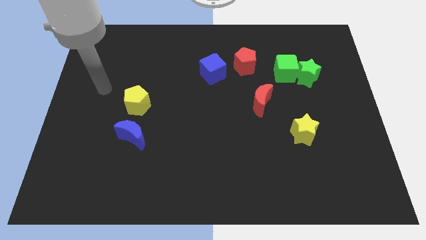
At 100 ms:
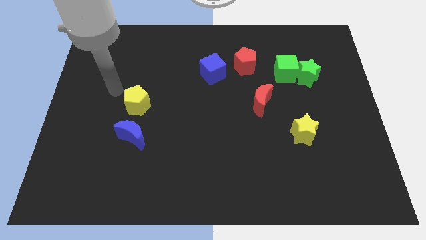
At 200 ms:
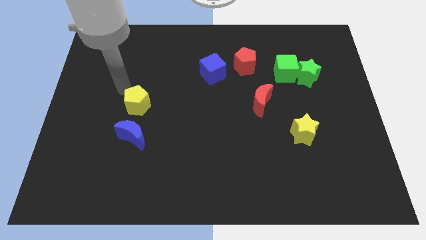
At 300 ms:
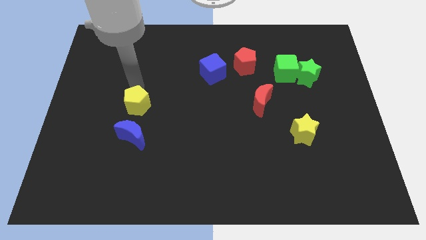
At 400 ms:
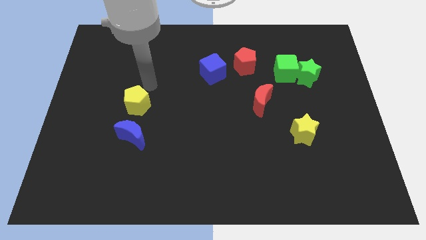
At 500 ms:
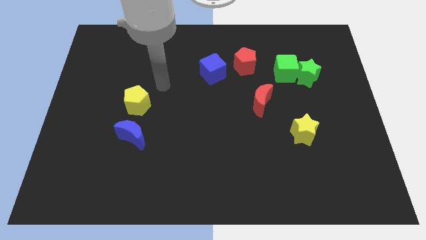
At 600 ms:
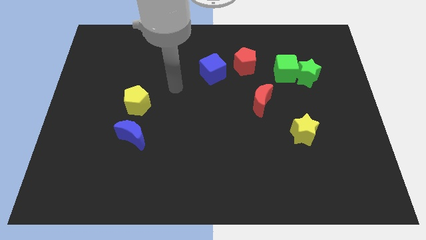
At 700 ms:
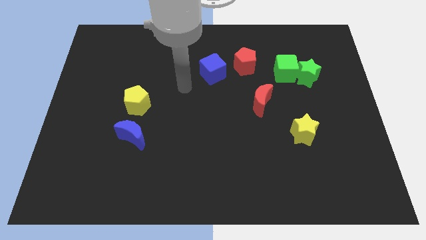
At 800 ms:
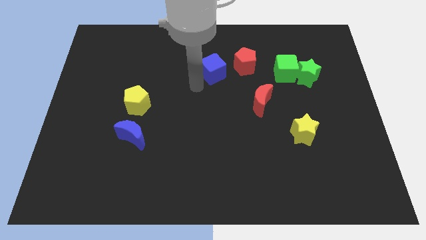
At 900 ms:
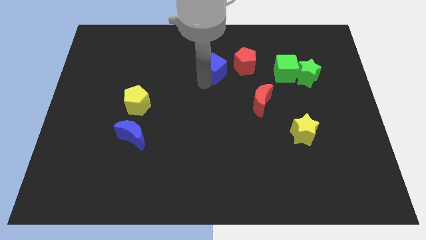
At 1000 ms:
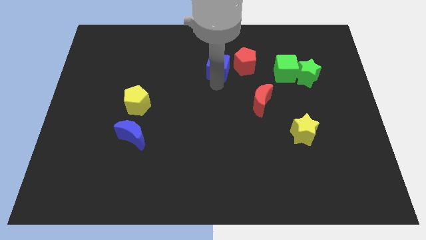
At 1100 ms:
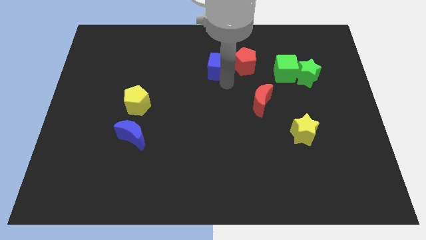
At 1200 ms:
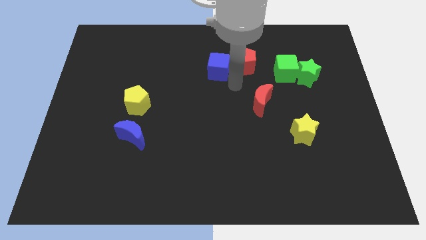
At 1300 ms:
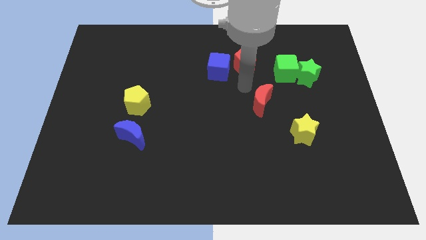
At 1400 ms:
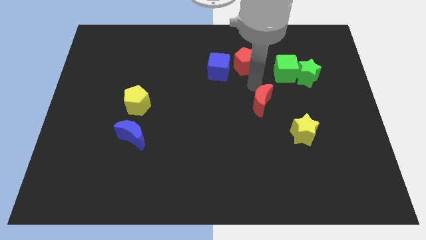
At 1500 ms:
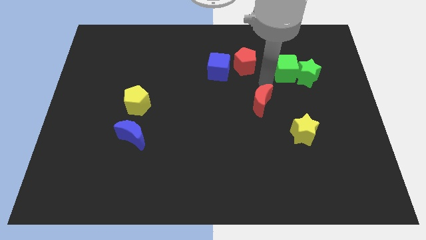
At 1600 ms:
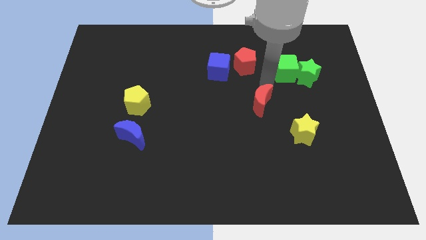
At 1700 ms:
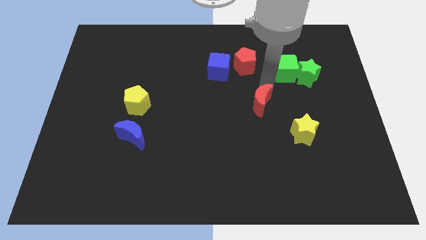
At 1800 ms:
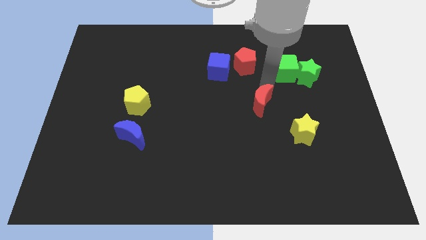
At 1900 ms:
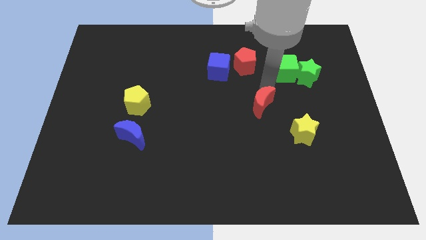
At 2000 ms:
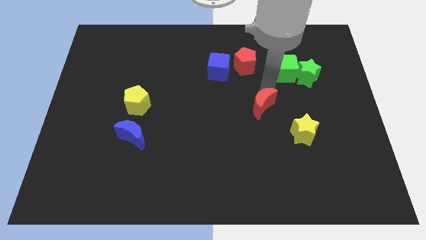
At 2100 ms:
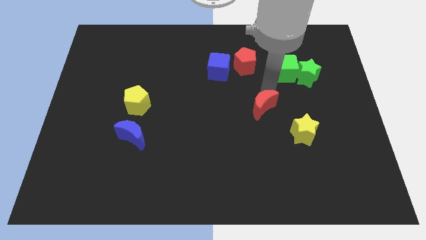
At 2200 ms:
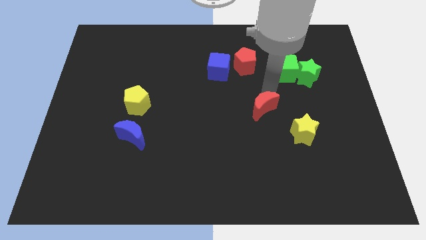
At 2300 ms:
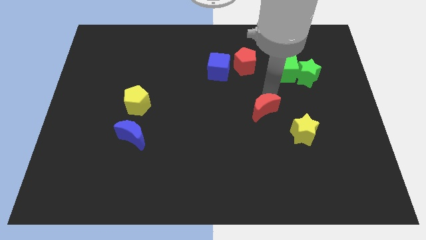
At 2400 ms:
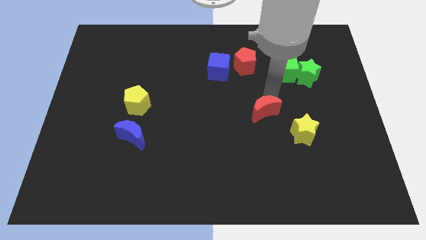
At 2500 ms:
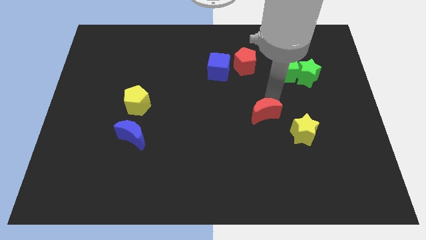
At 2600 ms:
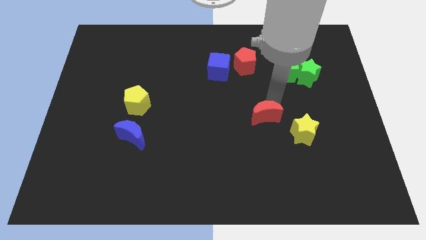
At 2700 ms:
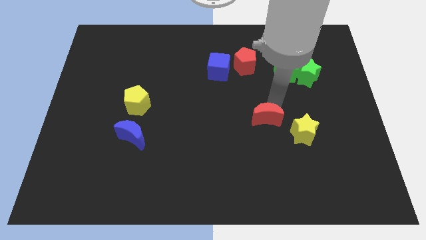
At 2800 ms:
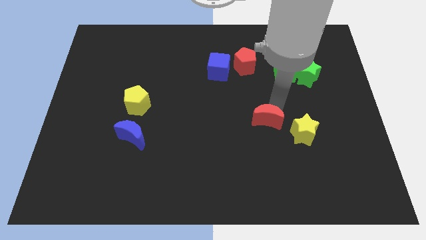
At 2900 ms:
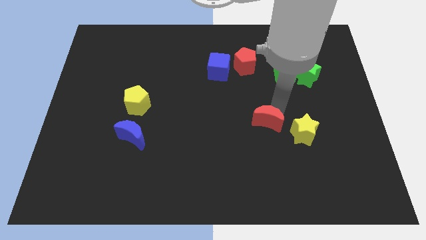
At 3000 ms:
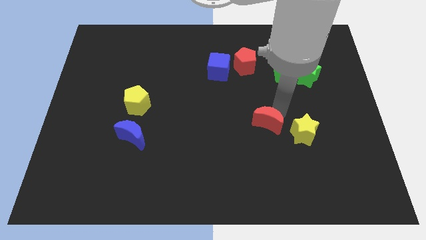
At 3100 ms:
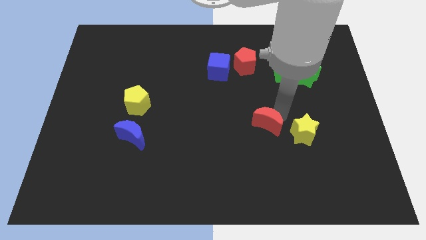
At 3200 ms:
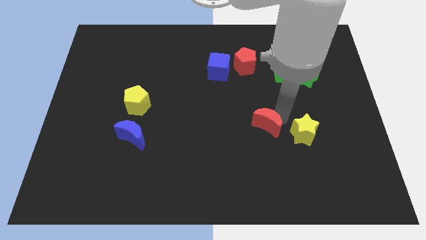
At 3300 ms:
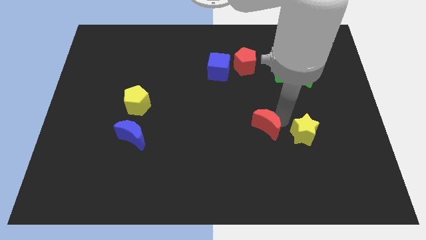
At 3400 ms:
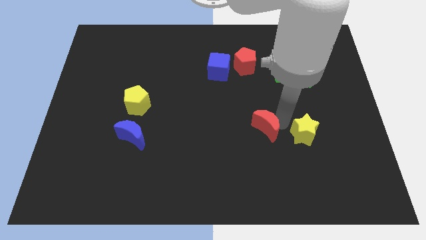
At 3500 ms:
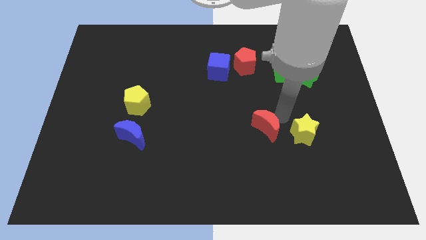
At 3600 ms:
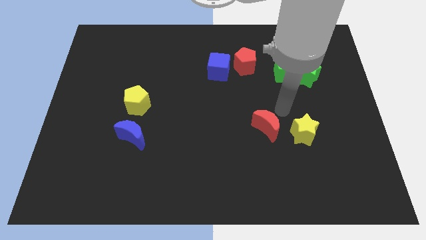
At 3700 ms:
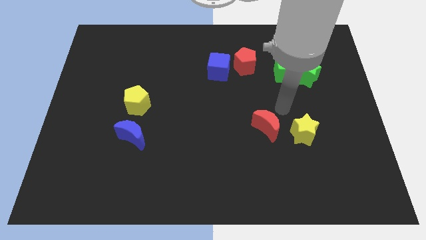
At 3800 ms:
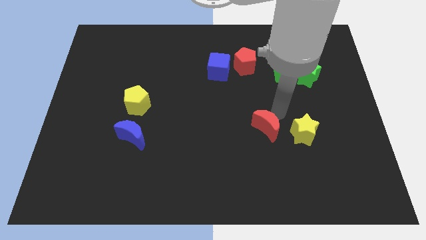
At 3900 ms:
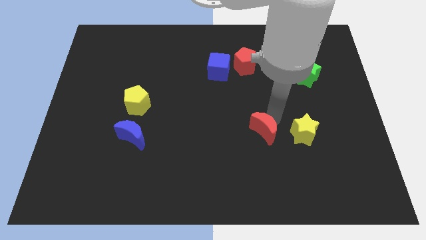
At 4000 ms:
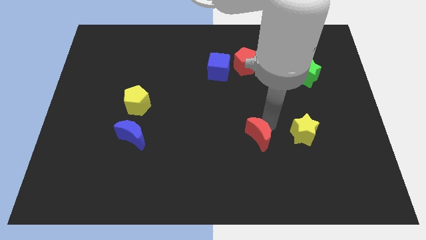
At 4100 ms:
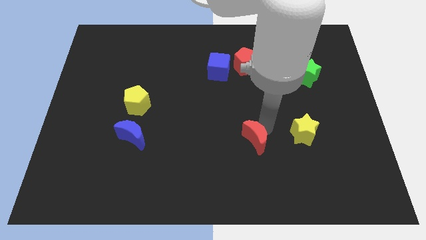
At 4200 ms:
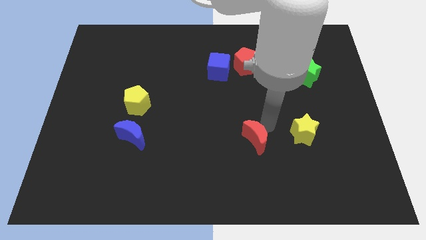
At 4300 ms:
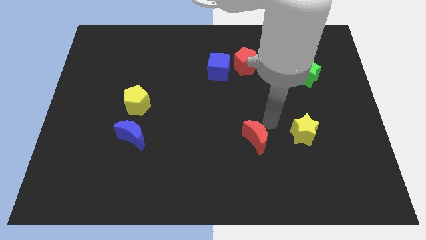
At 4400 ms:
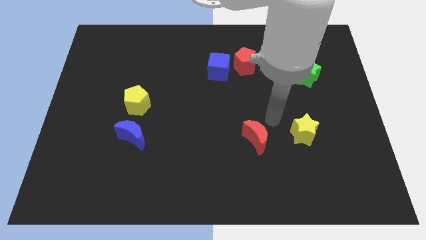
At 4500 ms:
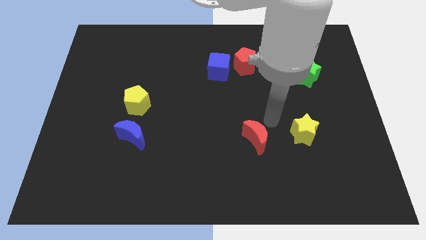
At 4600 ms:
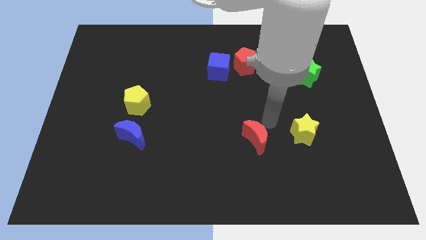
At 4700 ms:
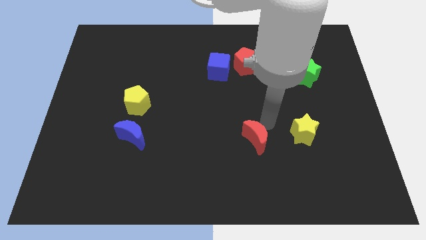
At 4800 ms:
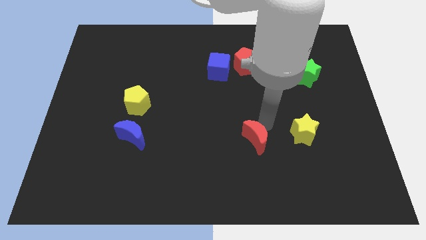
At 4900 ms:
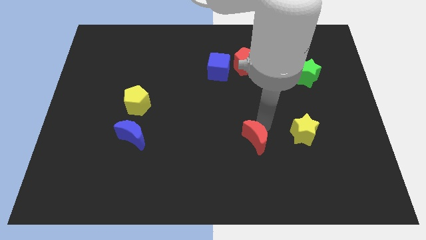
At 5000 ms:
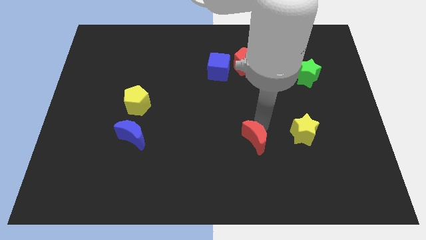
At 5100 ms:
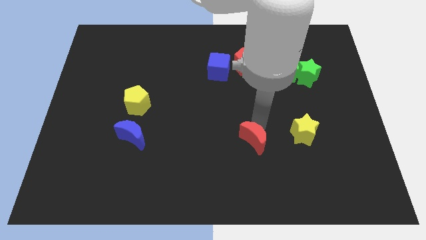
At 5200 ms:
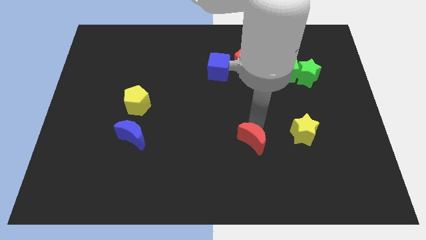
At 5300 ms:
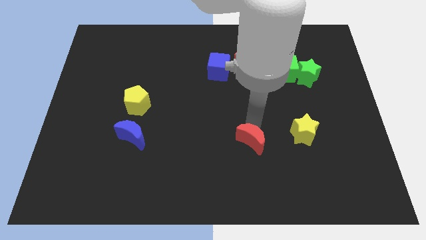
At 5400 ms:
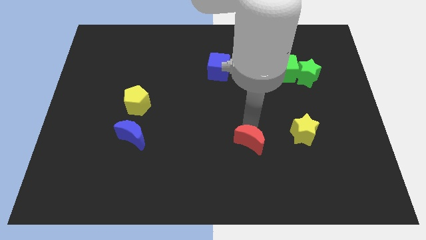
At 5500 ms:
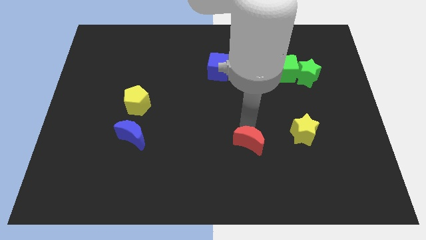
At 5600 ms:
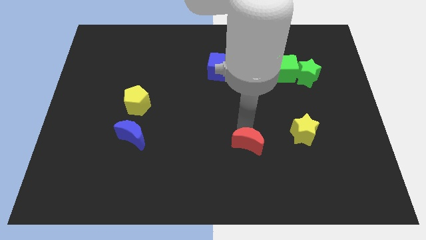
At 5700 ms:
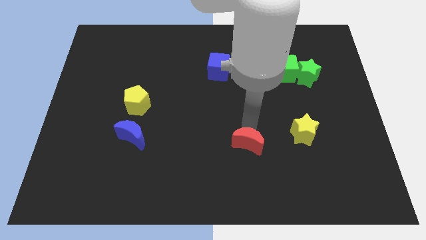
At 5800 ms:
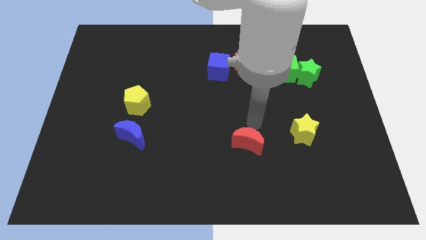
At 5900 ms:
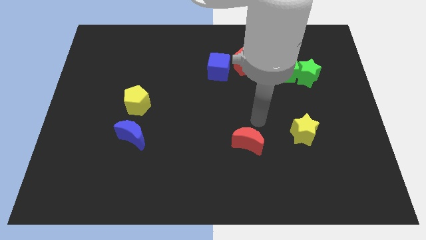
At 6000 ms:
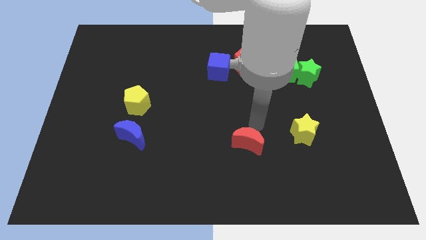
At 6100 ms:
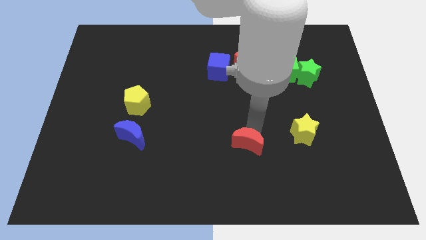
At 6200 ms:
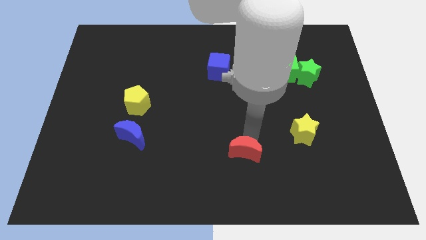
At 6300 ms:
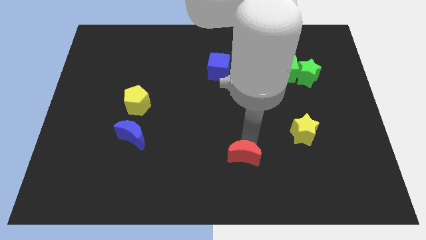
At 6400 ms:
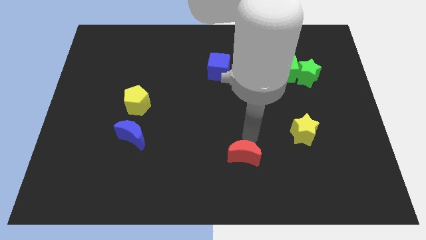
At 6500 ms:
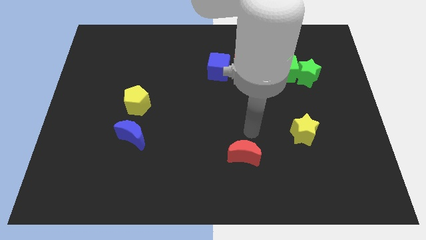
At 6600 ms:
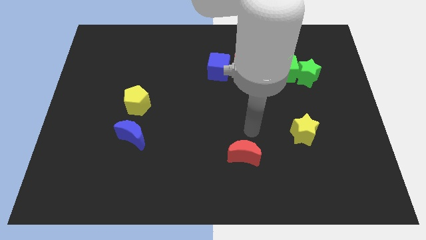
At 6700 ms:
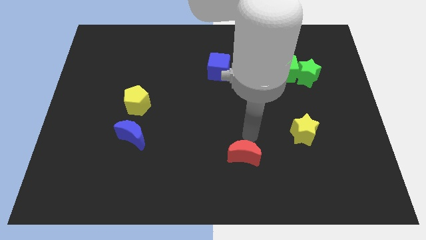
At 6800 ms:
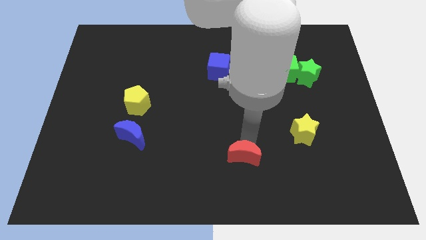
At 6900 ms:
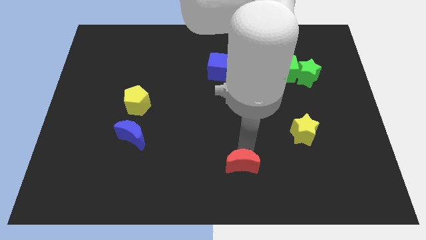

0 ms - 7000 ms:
put the red moon to the bottom side

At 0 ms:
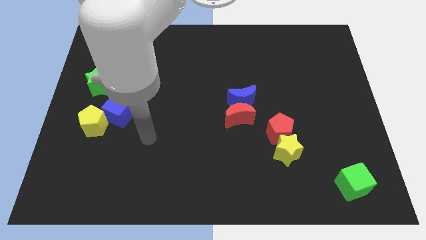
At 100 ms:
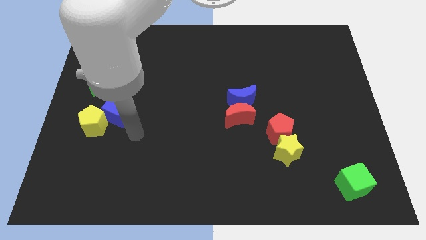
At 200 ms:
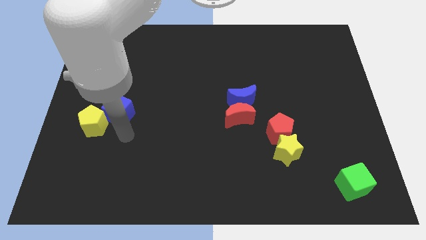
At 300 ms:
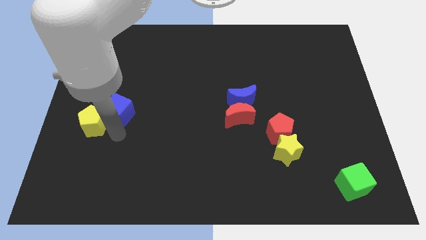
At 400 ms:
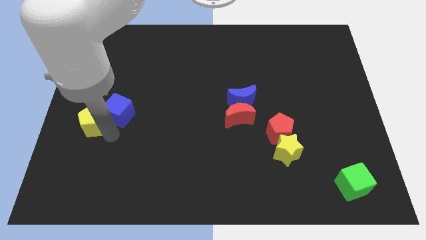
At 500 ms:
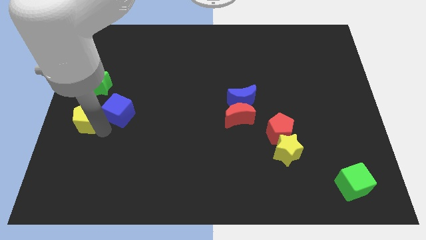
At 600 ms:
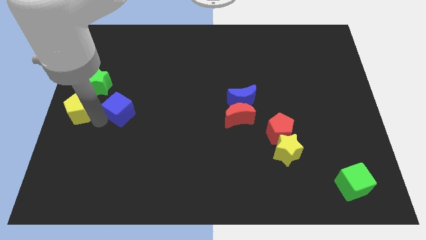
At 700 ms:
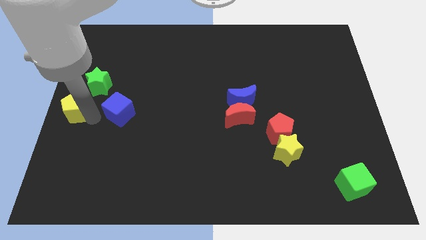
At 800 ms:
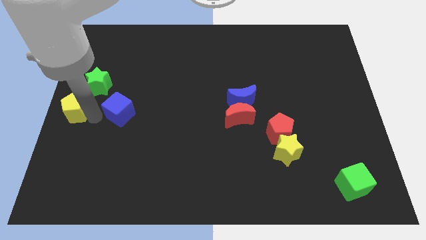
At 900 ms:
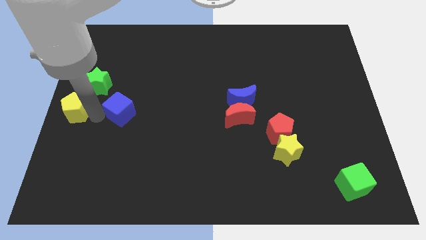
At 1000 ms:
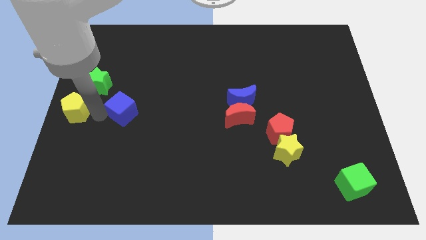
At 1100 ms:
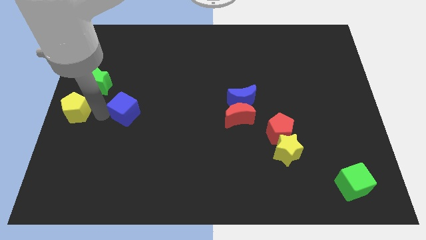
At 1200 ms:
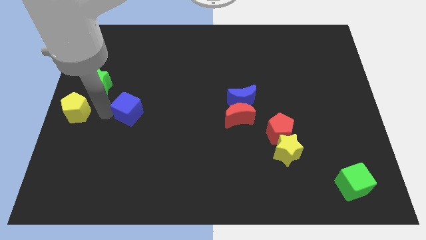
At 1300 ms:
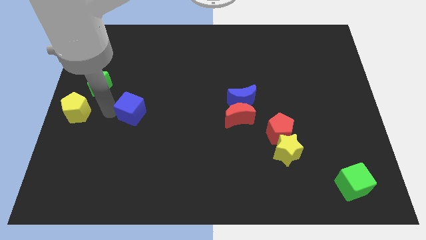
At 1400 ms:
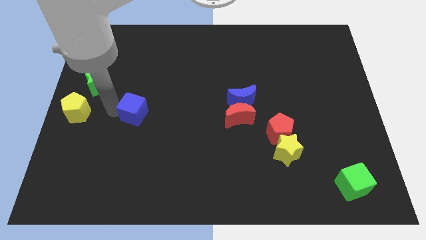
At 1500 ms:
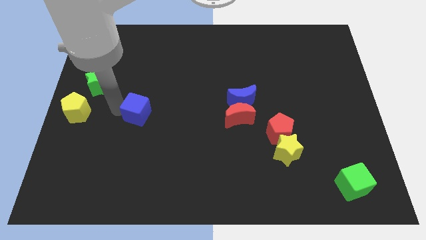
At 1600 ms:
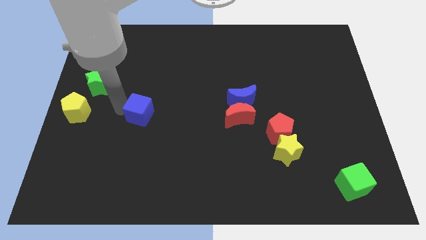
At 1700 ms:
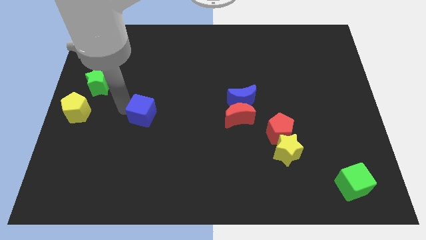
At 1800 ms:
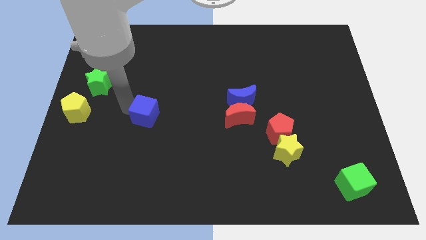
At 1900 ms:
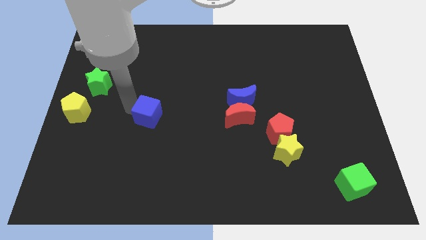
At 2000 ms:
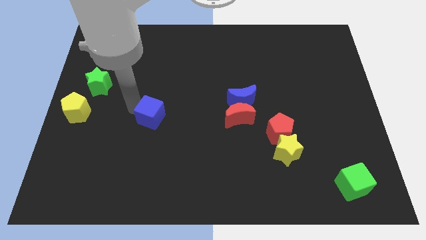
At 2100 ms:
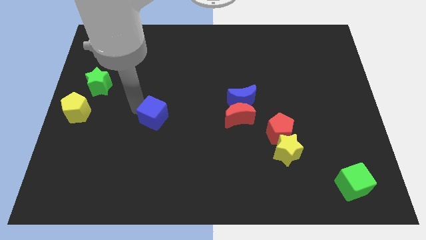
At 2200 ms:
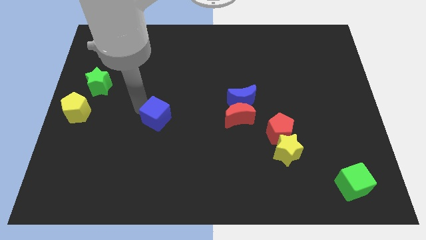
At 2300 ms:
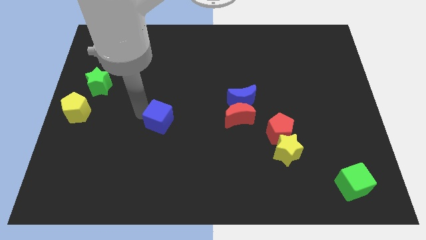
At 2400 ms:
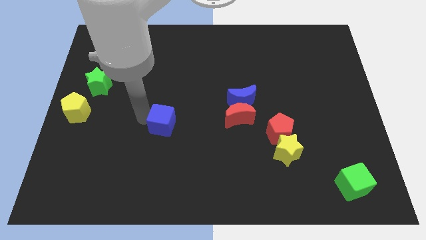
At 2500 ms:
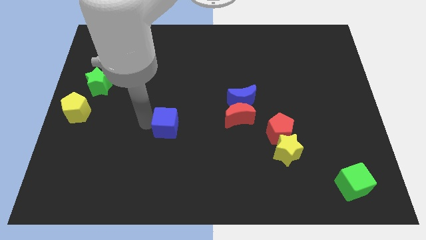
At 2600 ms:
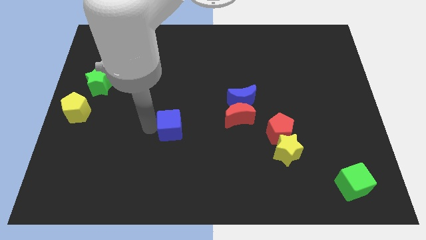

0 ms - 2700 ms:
push the blue cube to the center
